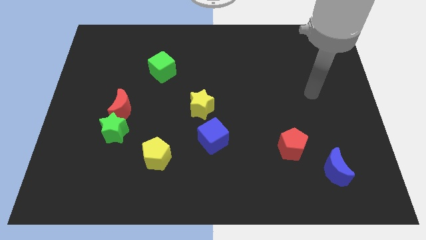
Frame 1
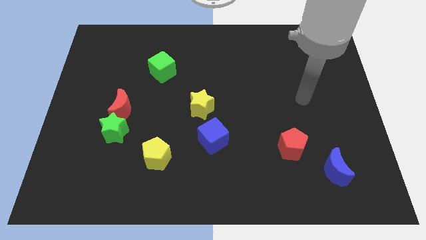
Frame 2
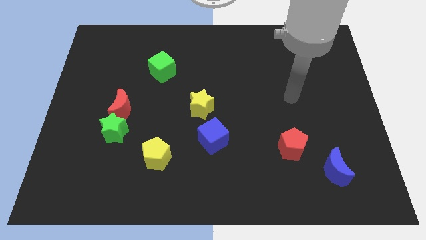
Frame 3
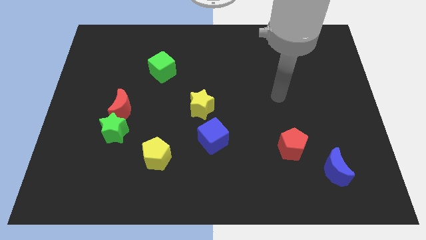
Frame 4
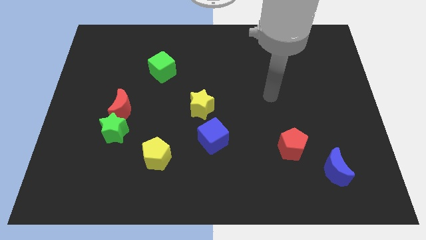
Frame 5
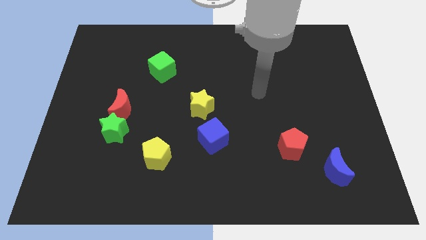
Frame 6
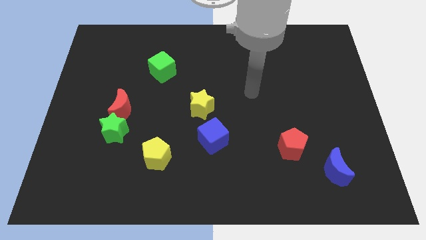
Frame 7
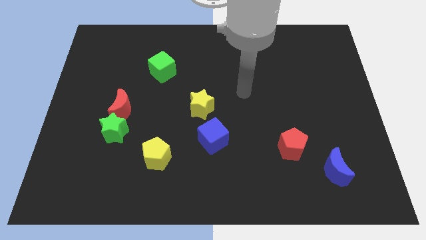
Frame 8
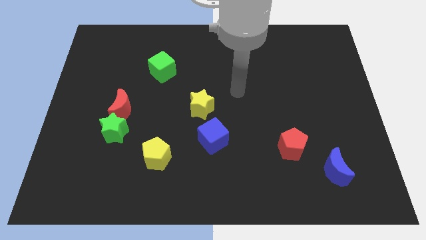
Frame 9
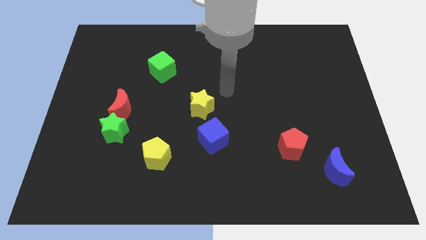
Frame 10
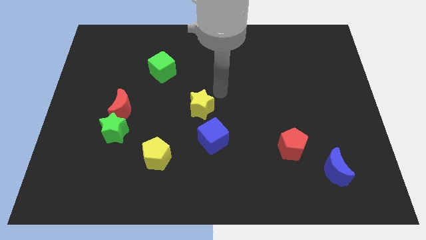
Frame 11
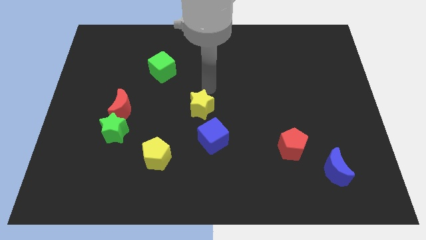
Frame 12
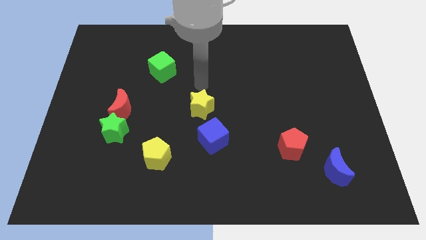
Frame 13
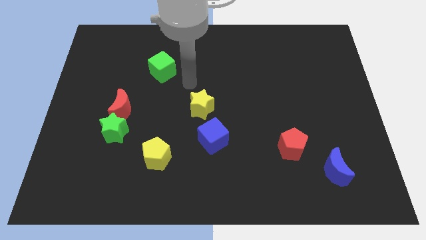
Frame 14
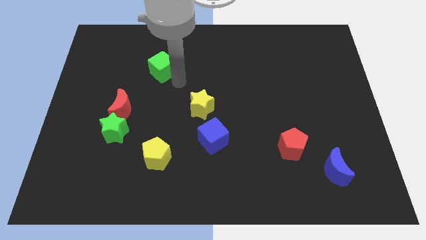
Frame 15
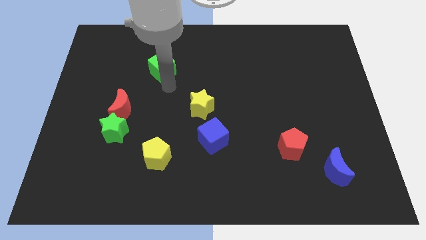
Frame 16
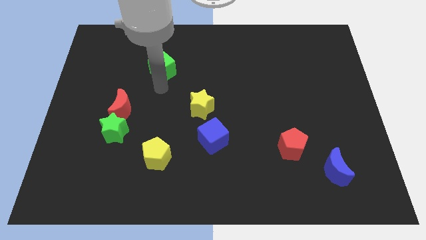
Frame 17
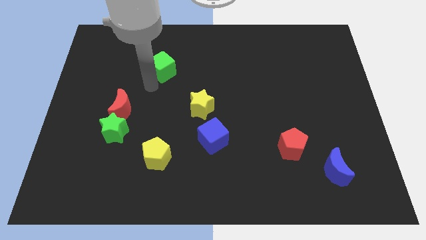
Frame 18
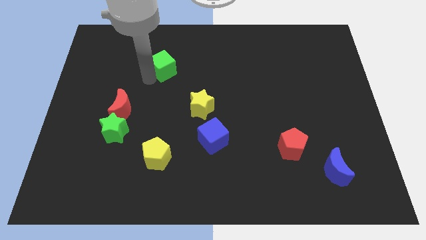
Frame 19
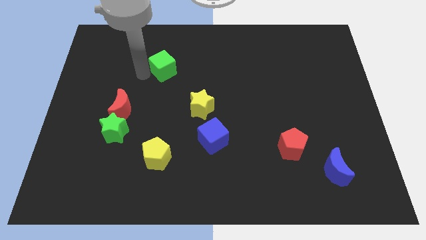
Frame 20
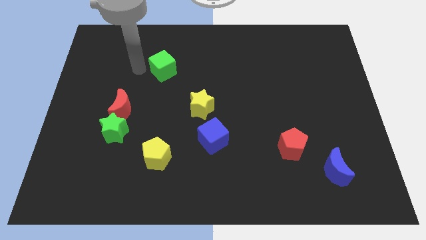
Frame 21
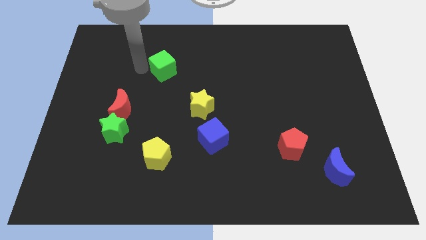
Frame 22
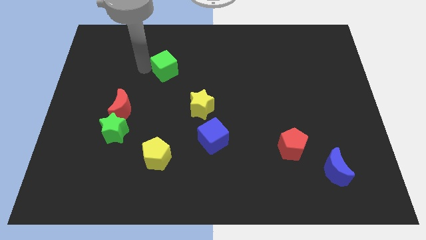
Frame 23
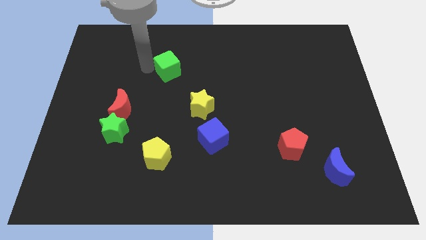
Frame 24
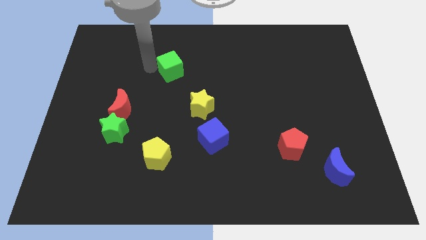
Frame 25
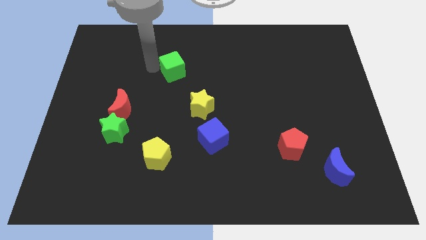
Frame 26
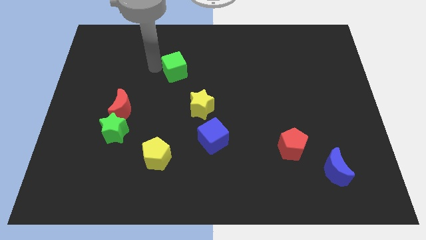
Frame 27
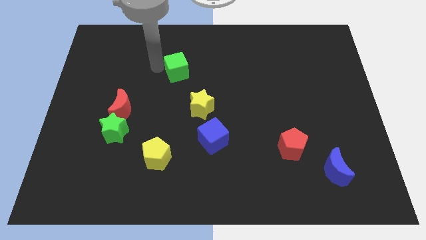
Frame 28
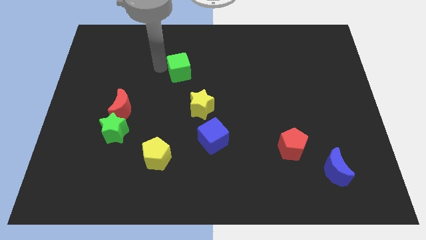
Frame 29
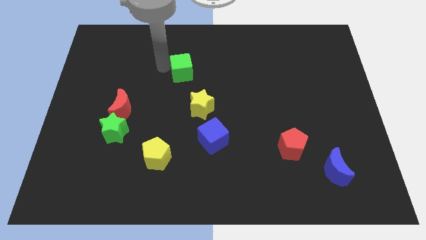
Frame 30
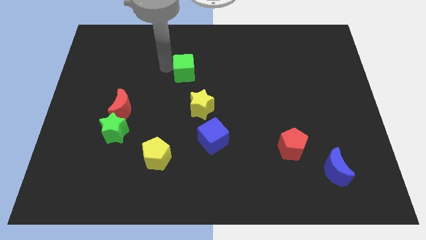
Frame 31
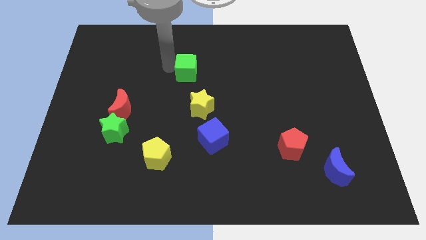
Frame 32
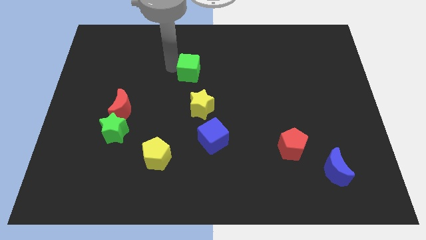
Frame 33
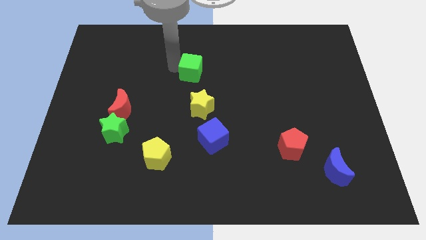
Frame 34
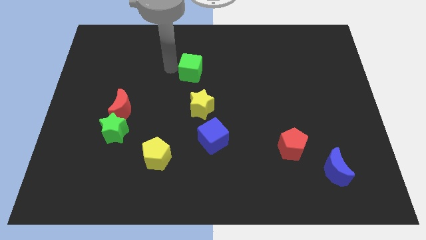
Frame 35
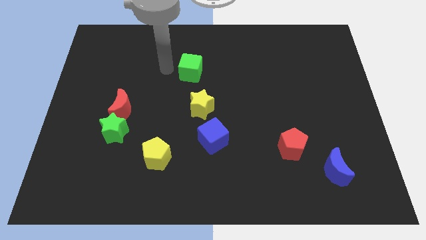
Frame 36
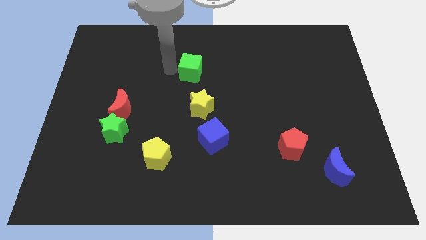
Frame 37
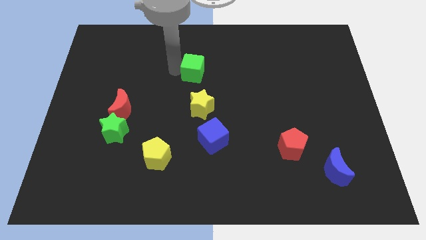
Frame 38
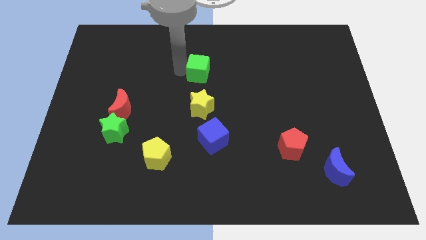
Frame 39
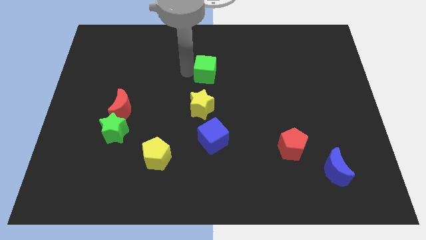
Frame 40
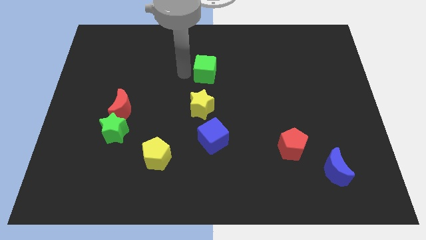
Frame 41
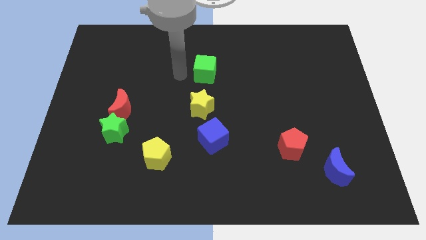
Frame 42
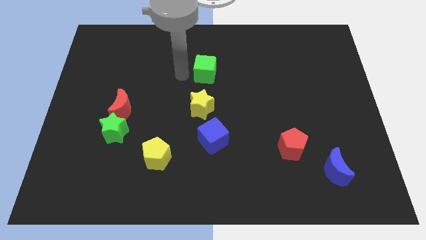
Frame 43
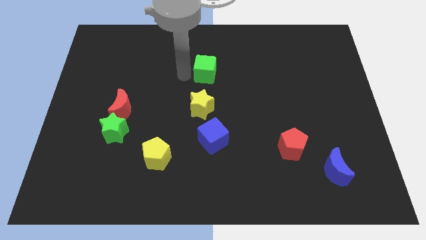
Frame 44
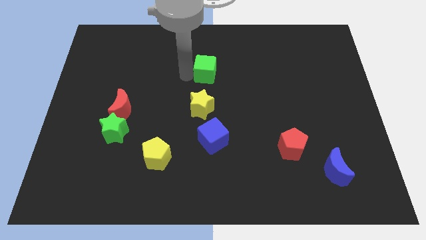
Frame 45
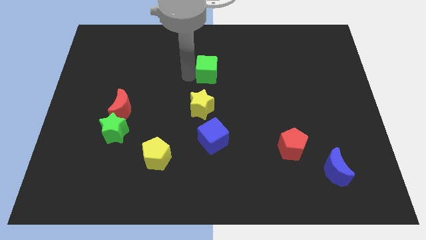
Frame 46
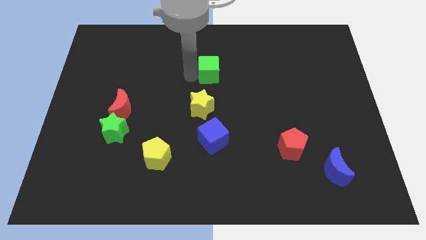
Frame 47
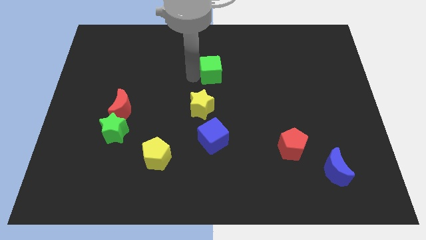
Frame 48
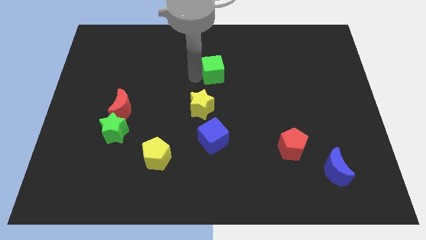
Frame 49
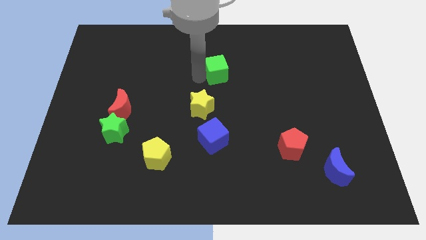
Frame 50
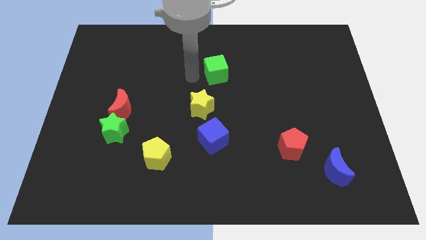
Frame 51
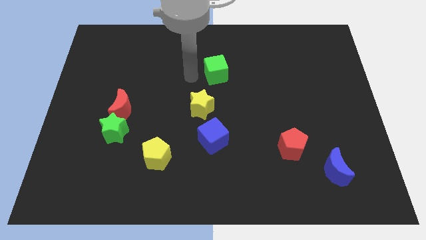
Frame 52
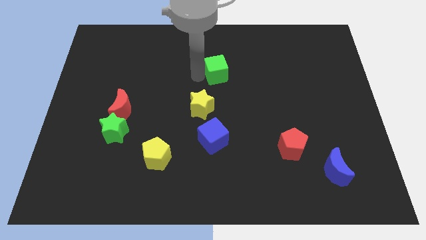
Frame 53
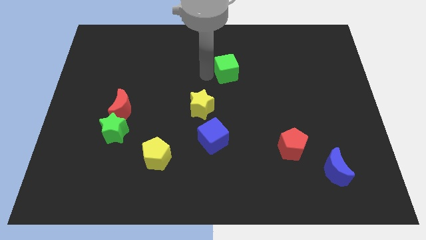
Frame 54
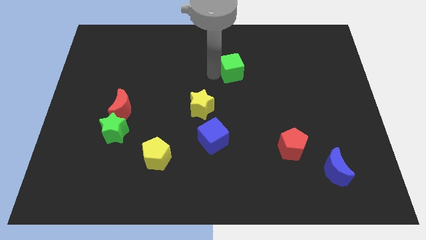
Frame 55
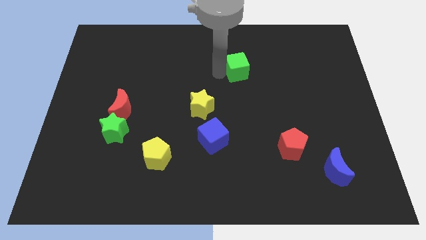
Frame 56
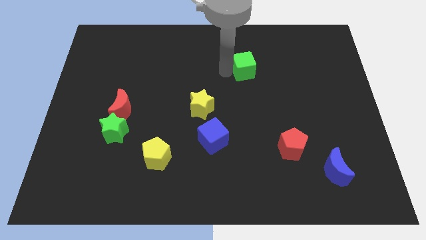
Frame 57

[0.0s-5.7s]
slide the green cube right

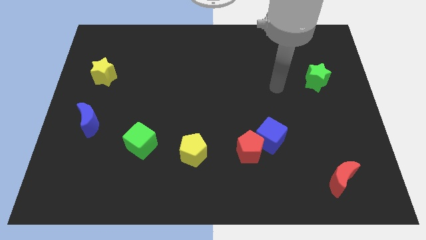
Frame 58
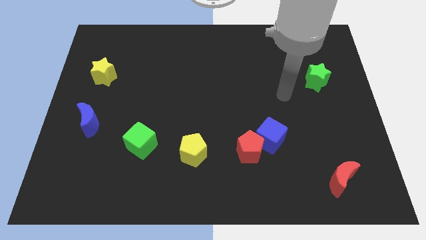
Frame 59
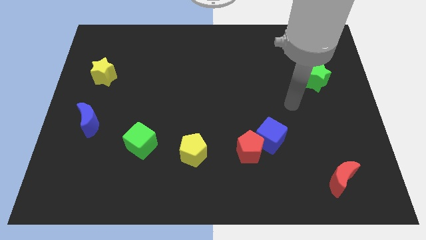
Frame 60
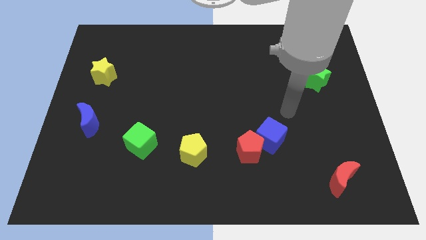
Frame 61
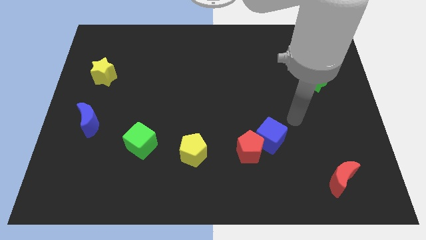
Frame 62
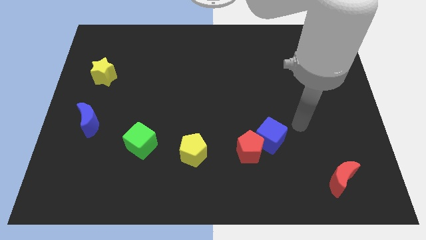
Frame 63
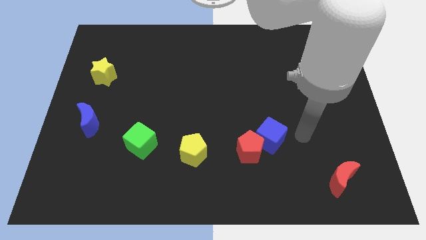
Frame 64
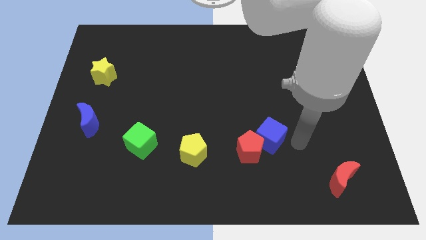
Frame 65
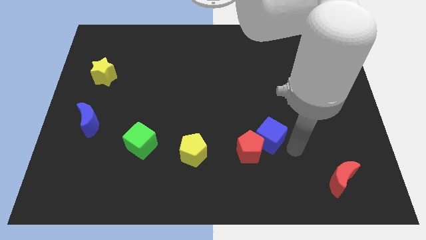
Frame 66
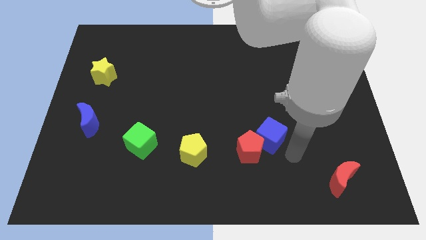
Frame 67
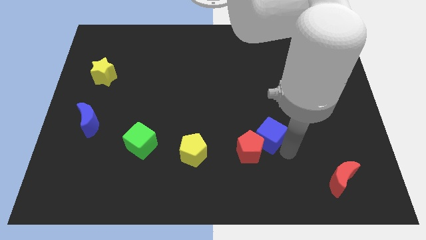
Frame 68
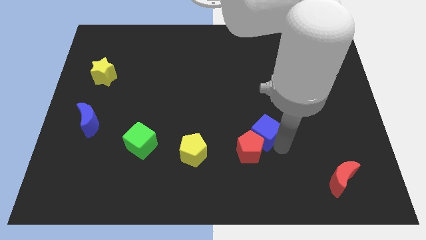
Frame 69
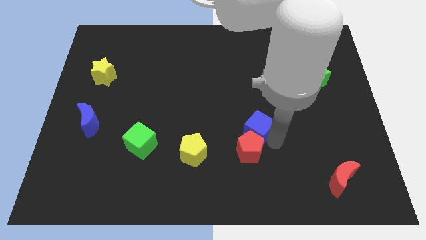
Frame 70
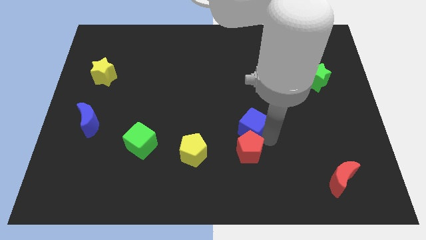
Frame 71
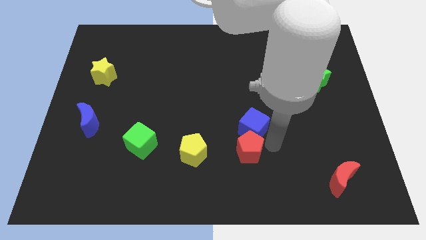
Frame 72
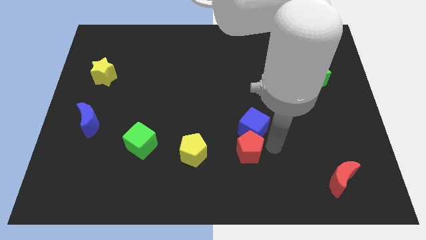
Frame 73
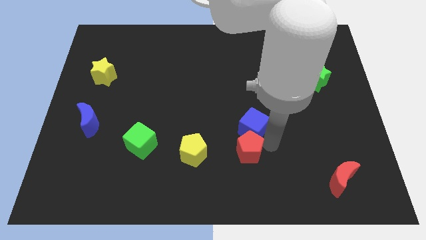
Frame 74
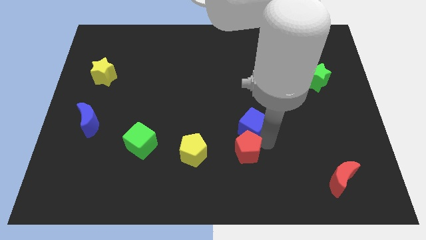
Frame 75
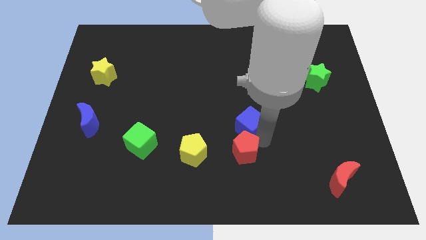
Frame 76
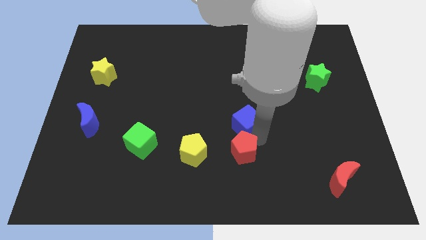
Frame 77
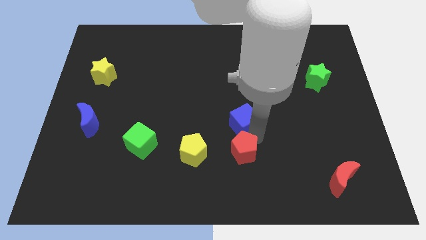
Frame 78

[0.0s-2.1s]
slide the blue cube up and to the left slightly

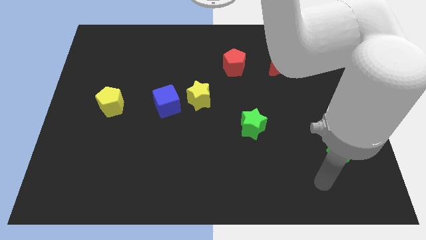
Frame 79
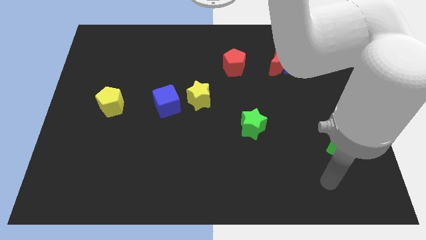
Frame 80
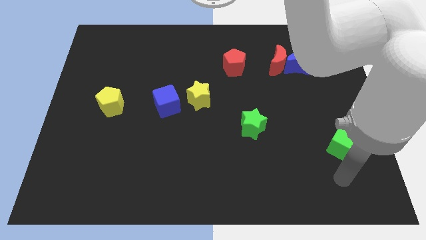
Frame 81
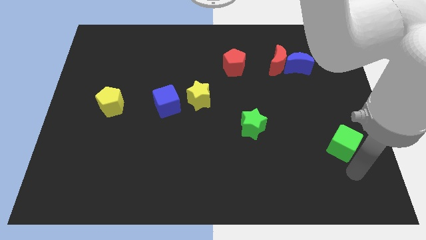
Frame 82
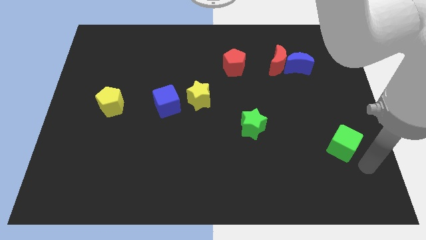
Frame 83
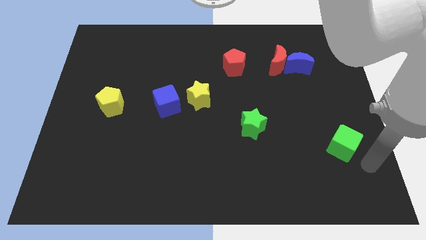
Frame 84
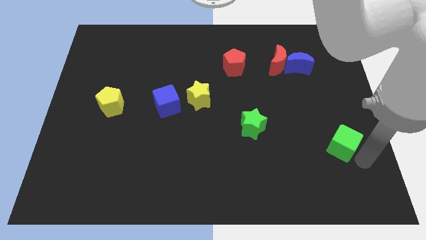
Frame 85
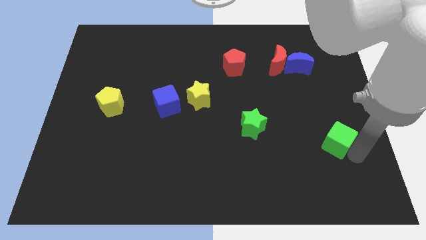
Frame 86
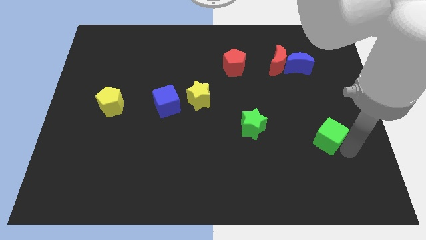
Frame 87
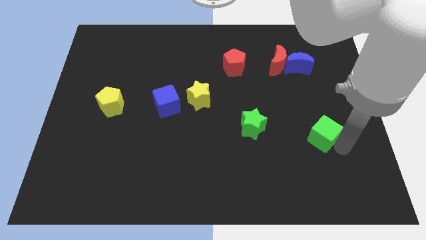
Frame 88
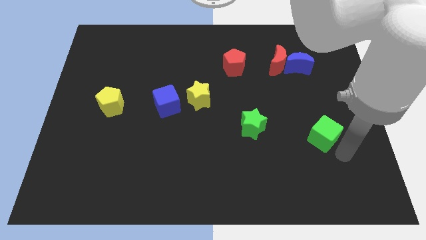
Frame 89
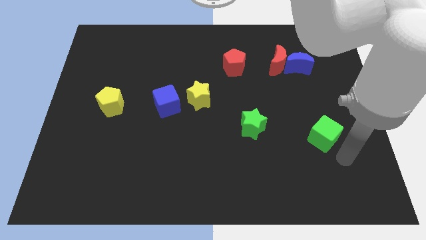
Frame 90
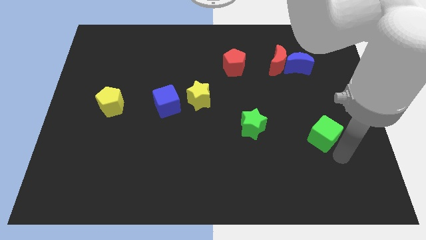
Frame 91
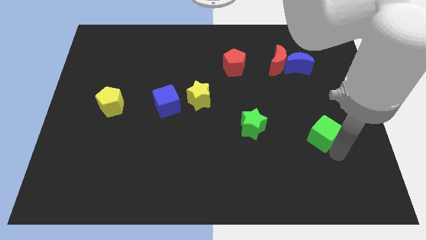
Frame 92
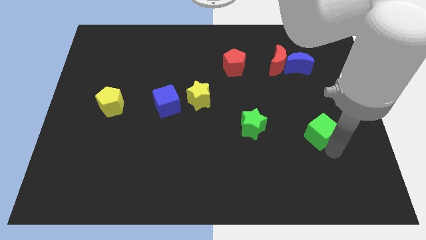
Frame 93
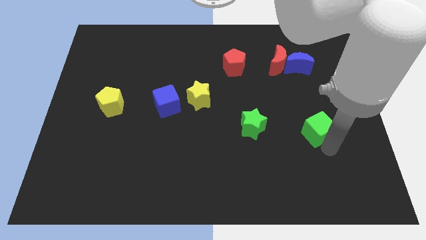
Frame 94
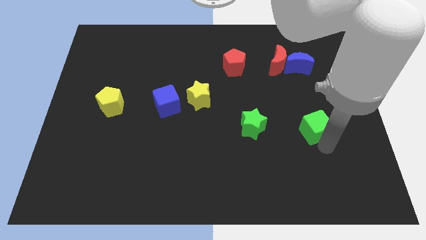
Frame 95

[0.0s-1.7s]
slide the green cube up and to the left a little bit
